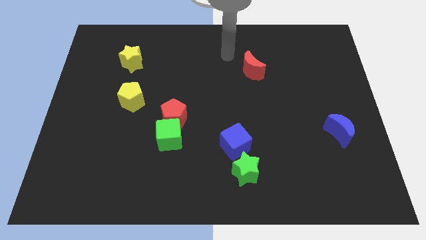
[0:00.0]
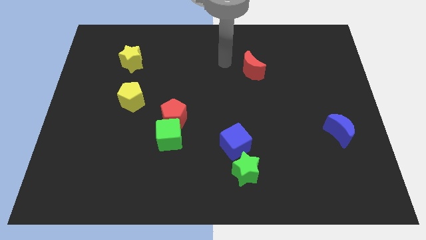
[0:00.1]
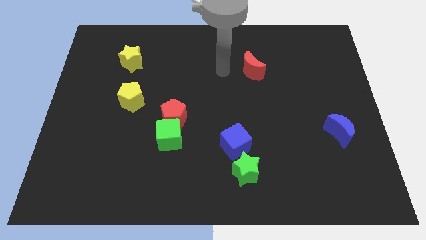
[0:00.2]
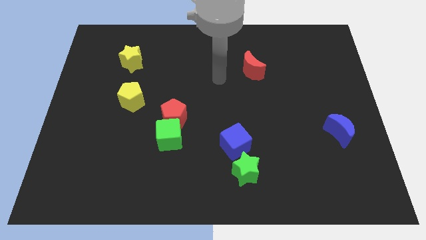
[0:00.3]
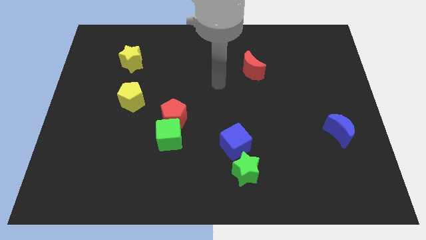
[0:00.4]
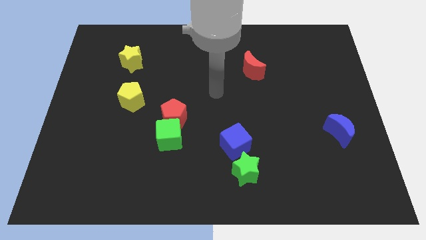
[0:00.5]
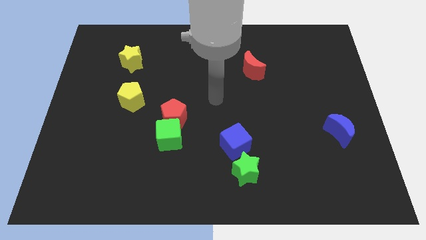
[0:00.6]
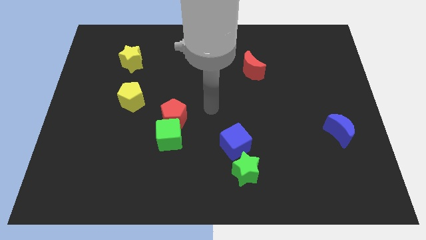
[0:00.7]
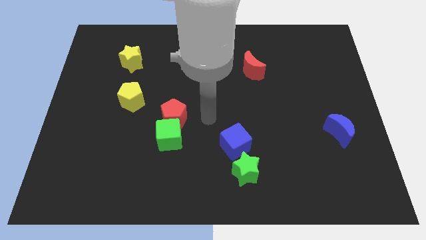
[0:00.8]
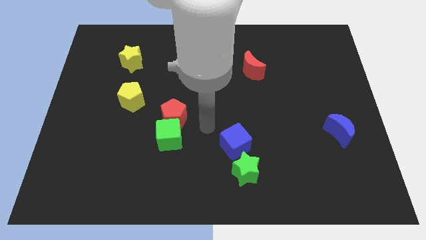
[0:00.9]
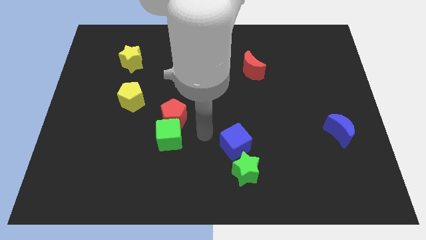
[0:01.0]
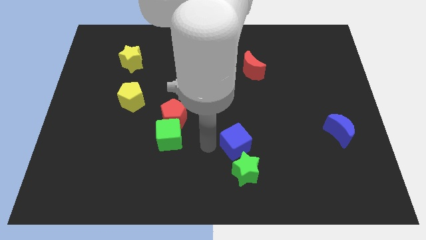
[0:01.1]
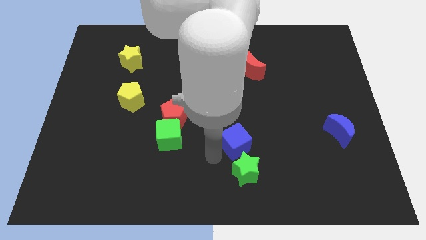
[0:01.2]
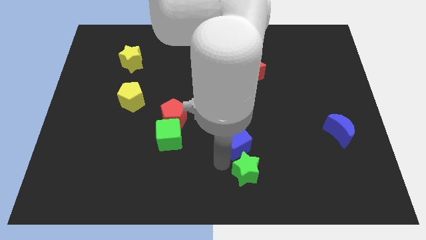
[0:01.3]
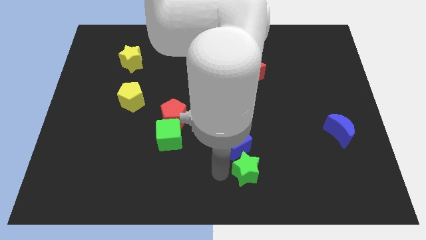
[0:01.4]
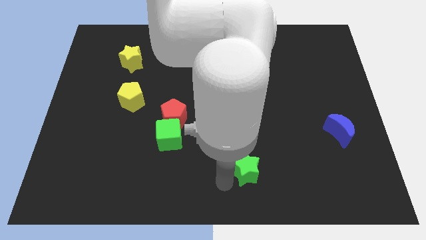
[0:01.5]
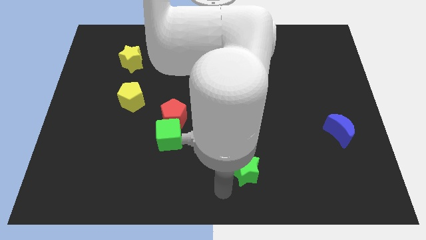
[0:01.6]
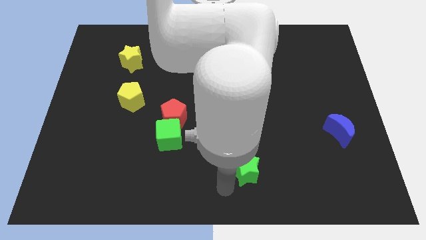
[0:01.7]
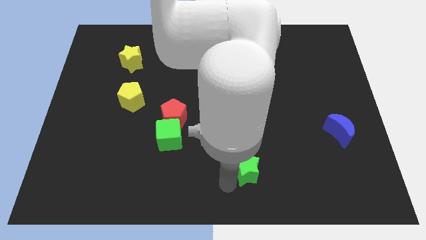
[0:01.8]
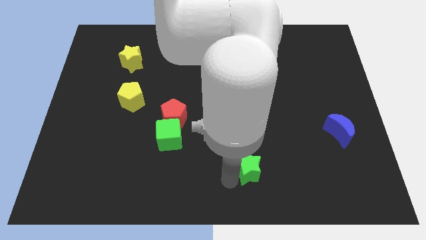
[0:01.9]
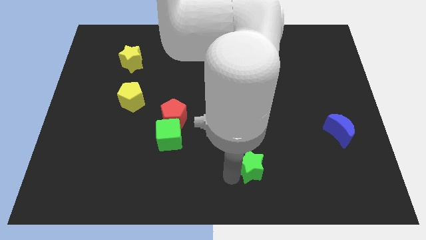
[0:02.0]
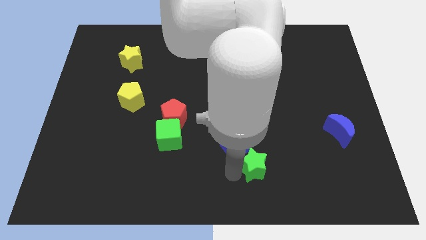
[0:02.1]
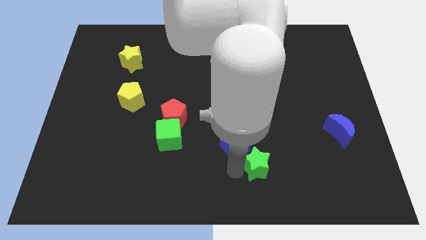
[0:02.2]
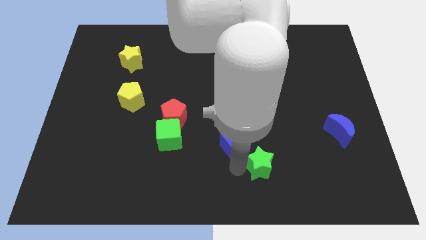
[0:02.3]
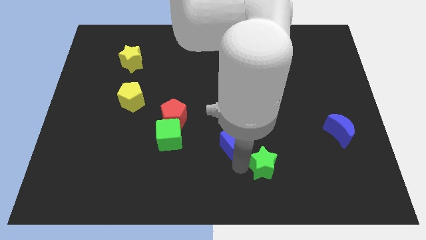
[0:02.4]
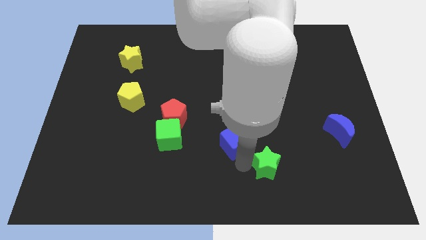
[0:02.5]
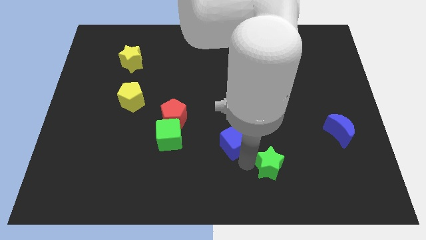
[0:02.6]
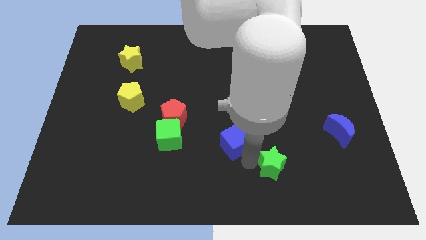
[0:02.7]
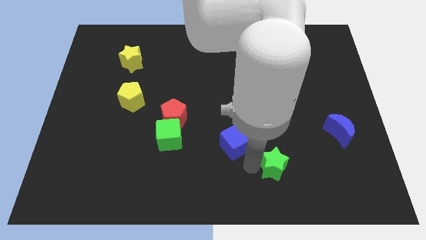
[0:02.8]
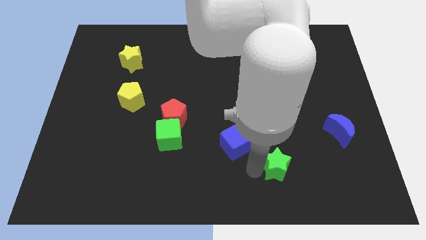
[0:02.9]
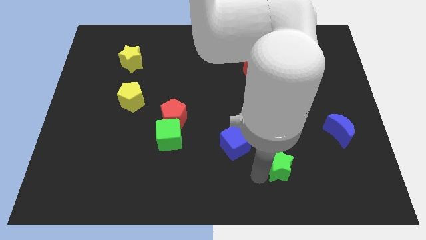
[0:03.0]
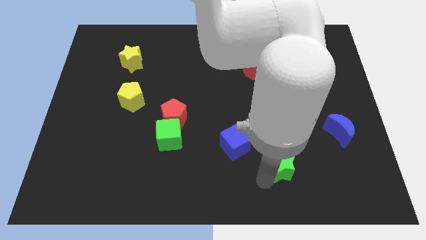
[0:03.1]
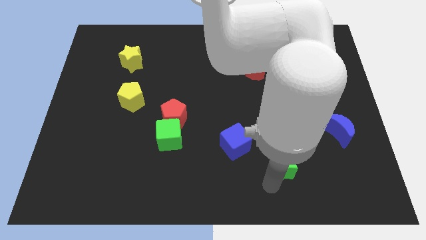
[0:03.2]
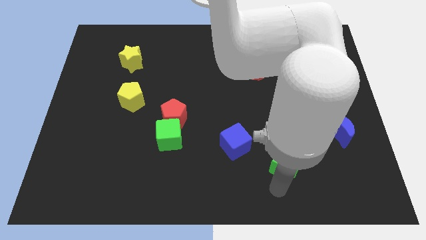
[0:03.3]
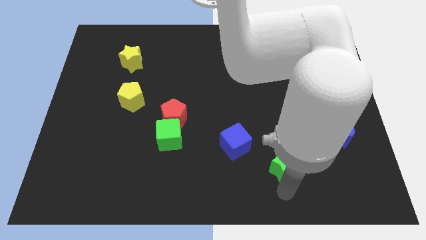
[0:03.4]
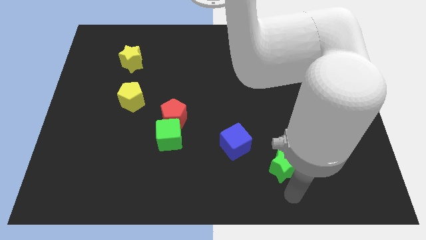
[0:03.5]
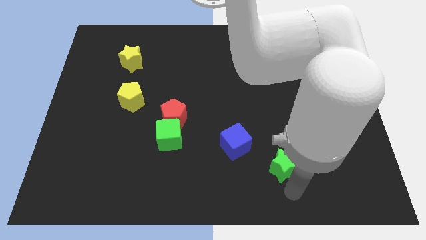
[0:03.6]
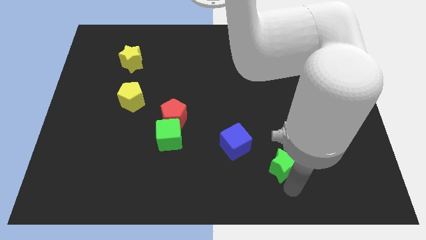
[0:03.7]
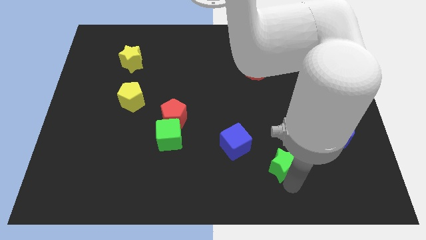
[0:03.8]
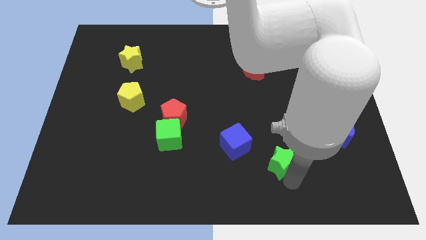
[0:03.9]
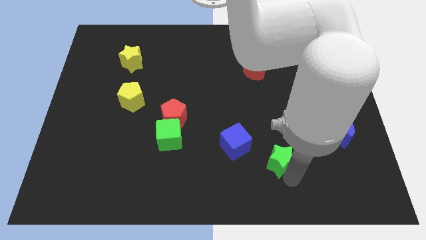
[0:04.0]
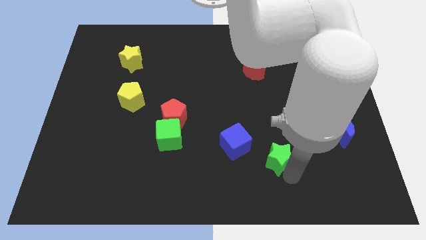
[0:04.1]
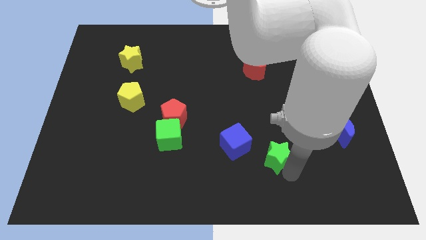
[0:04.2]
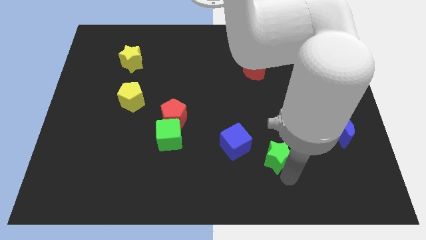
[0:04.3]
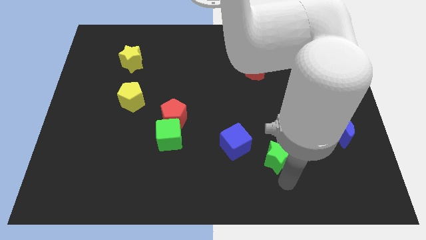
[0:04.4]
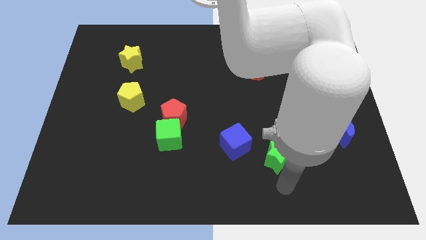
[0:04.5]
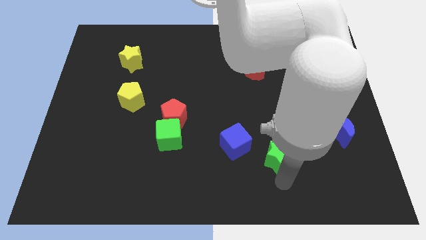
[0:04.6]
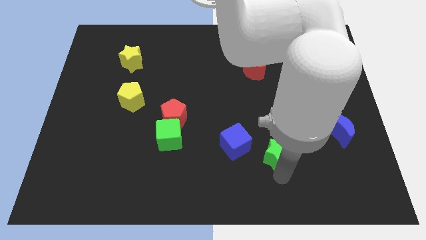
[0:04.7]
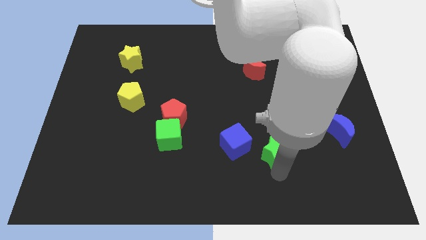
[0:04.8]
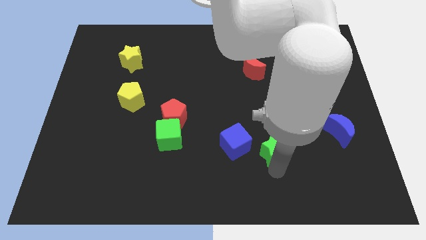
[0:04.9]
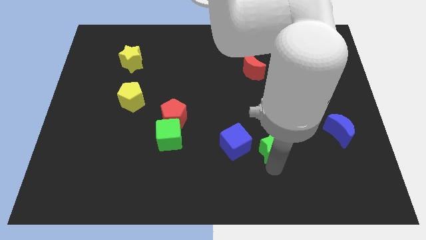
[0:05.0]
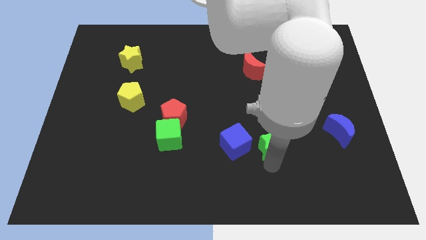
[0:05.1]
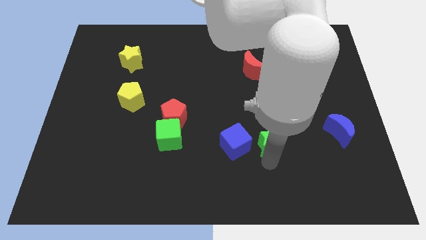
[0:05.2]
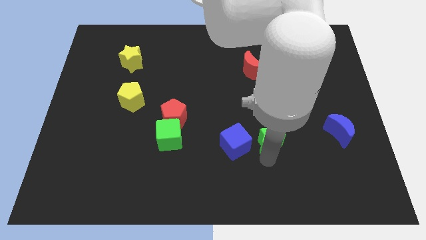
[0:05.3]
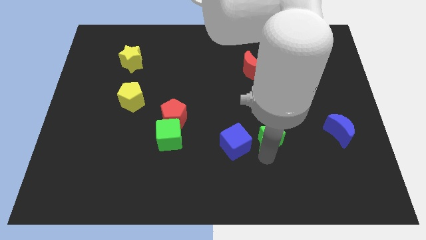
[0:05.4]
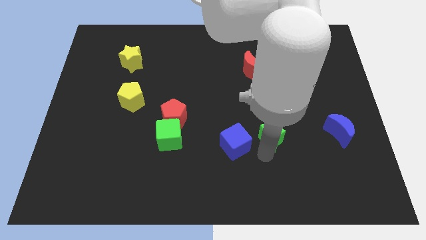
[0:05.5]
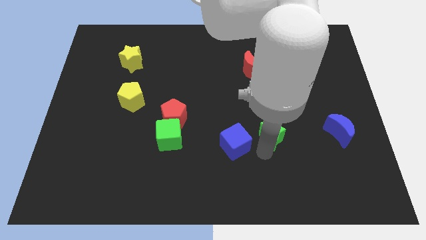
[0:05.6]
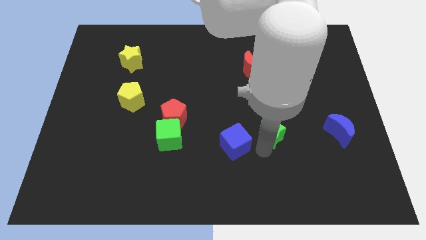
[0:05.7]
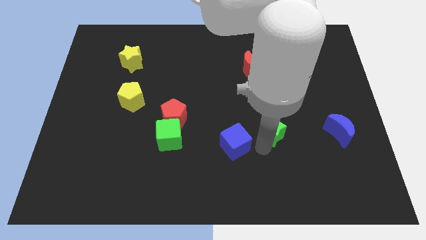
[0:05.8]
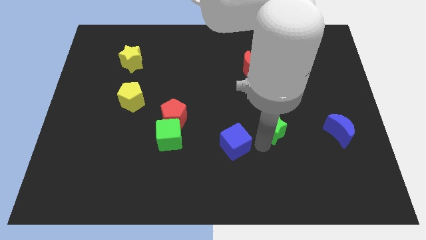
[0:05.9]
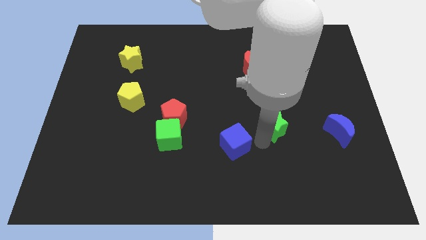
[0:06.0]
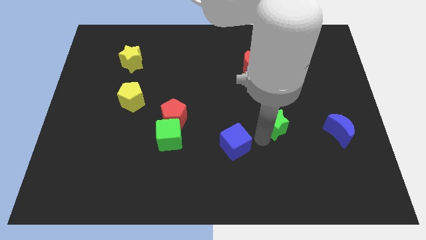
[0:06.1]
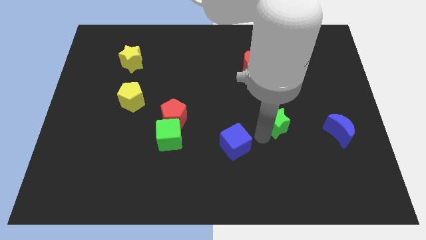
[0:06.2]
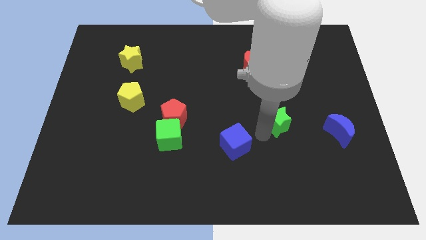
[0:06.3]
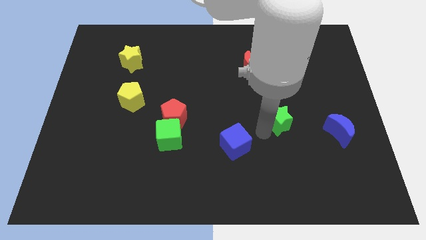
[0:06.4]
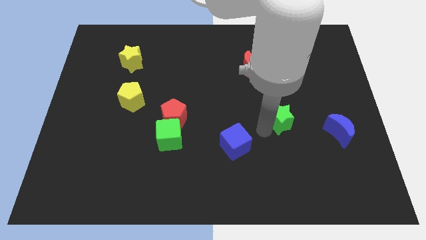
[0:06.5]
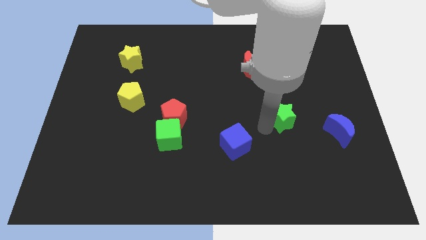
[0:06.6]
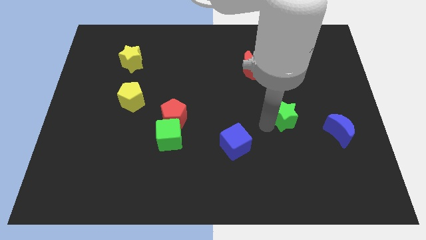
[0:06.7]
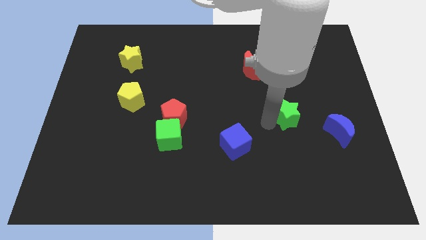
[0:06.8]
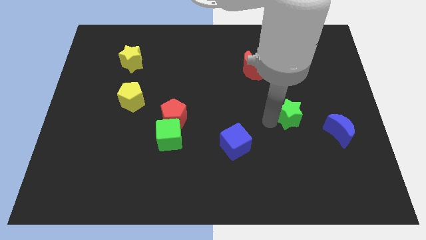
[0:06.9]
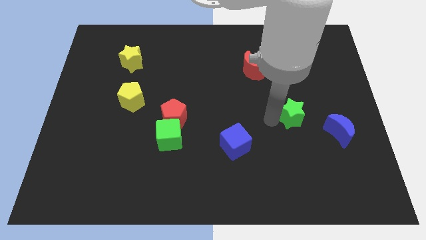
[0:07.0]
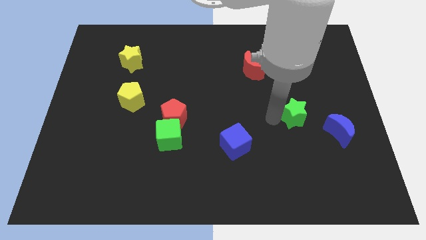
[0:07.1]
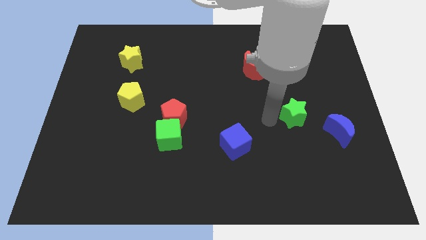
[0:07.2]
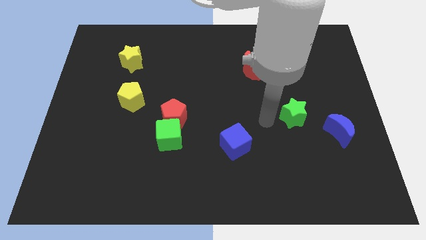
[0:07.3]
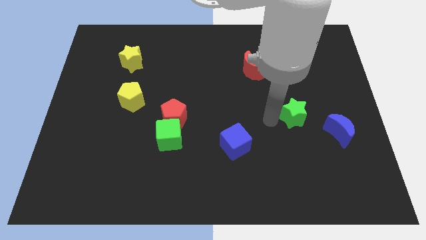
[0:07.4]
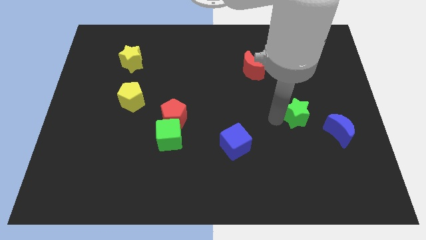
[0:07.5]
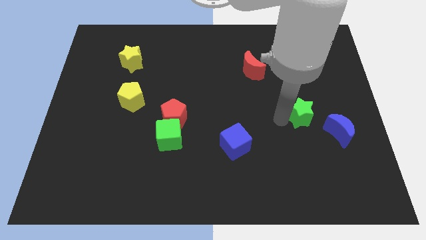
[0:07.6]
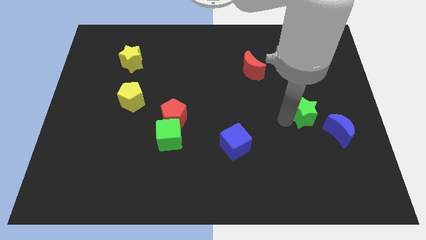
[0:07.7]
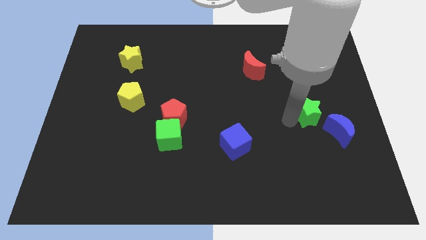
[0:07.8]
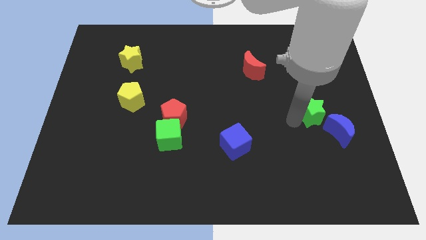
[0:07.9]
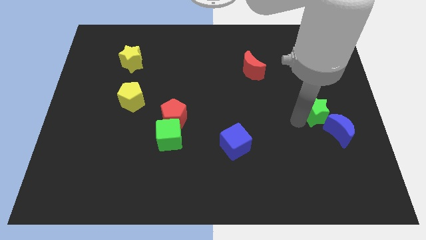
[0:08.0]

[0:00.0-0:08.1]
put the green star above the blue moon
